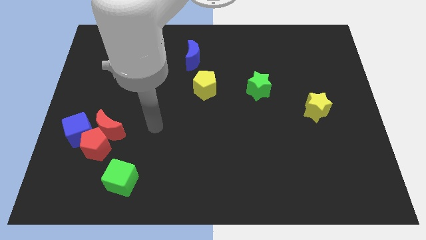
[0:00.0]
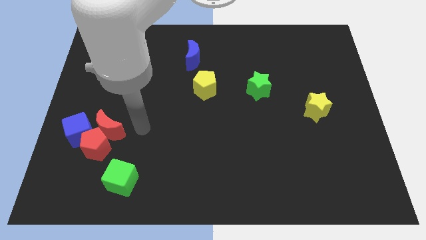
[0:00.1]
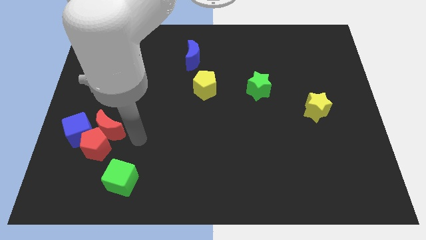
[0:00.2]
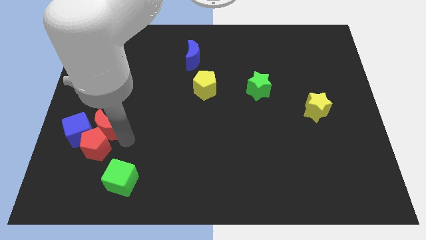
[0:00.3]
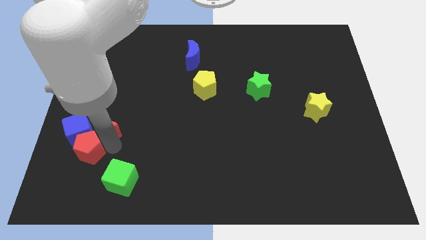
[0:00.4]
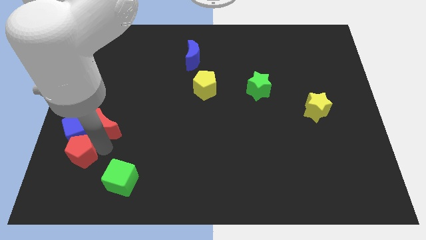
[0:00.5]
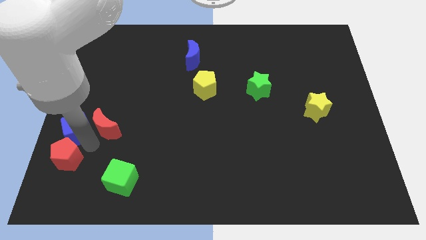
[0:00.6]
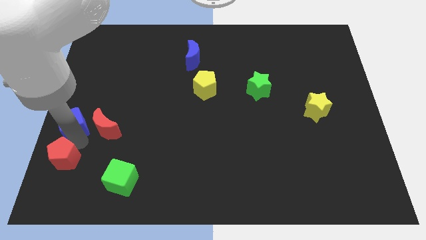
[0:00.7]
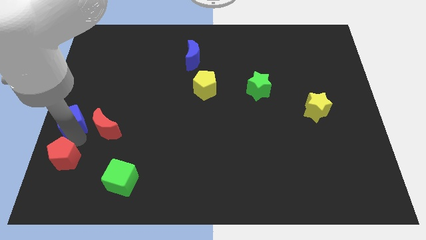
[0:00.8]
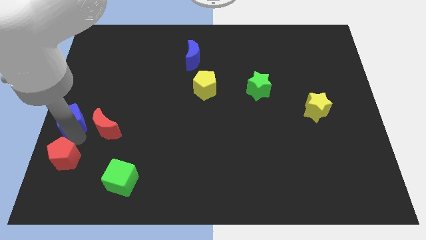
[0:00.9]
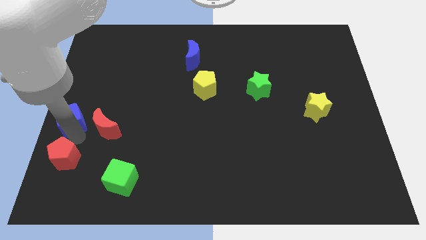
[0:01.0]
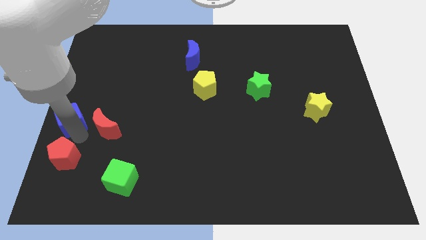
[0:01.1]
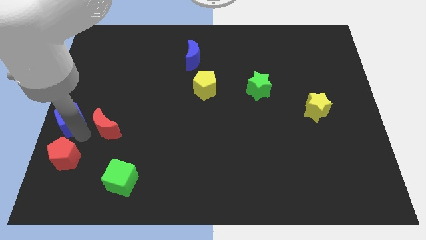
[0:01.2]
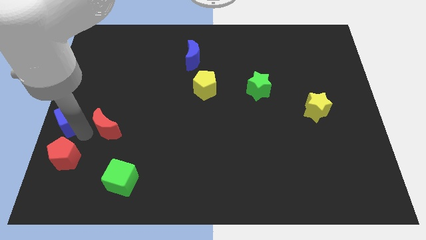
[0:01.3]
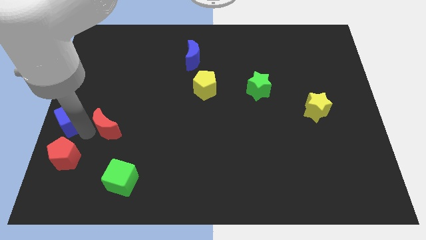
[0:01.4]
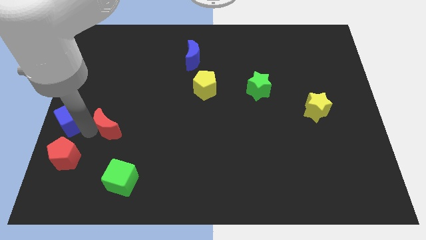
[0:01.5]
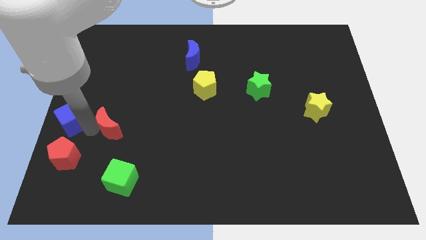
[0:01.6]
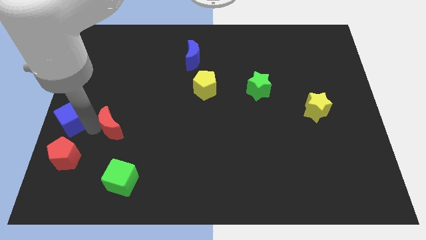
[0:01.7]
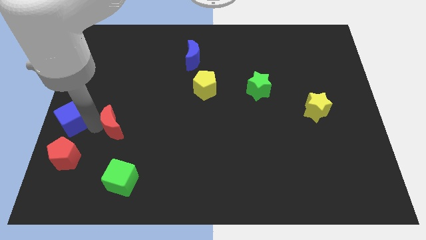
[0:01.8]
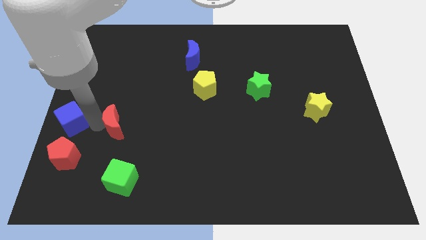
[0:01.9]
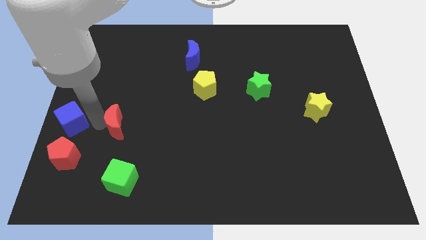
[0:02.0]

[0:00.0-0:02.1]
separate the red moon from the red pentagon and blue cube

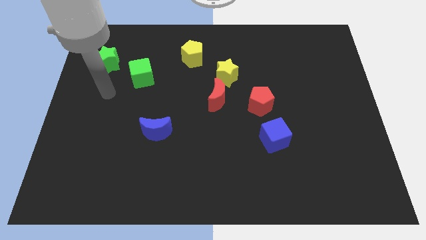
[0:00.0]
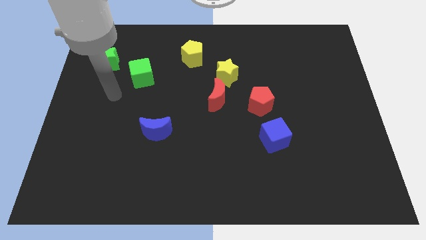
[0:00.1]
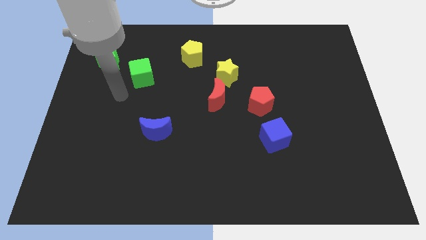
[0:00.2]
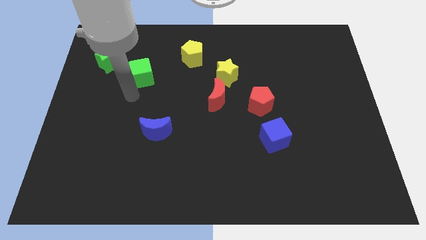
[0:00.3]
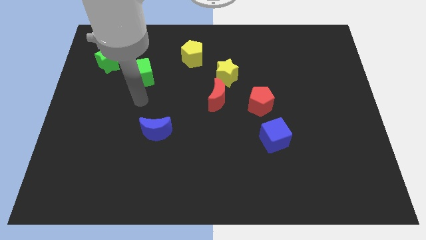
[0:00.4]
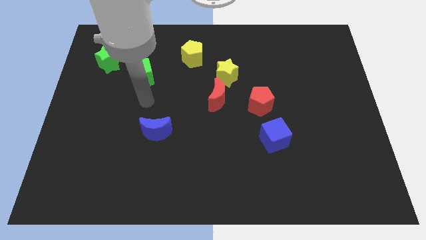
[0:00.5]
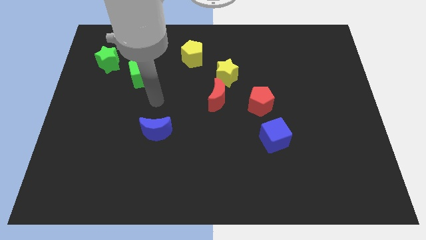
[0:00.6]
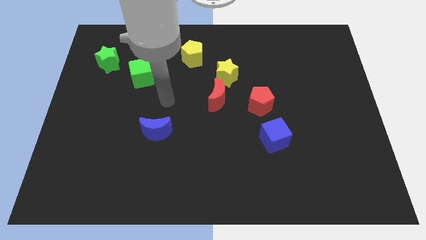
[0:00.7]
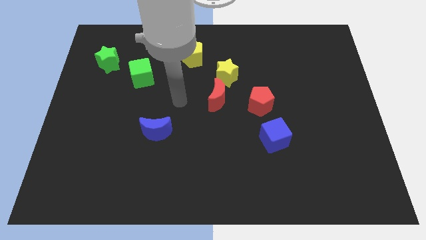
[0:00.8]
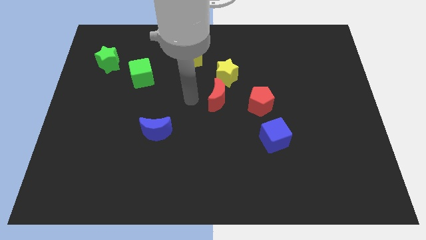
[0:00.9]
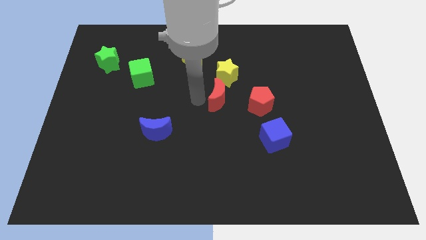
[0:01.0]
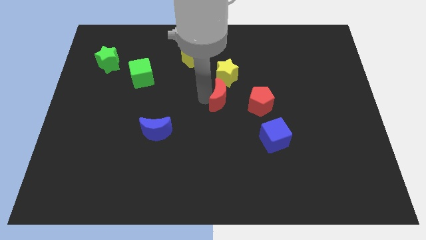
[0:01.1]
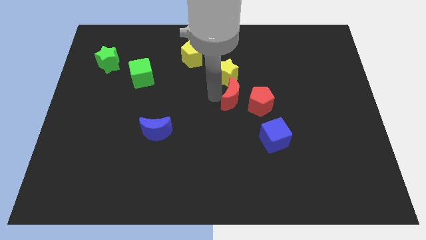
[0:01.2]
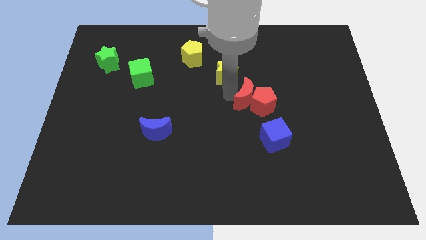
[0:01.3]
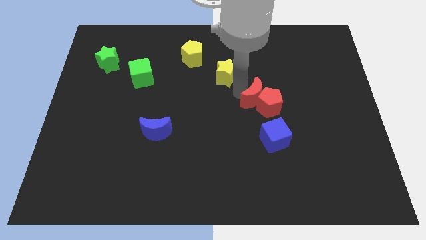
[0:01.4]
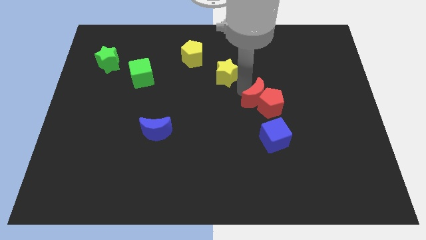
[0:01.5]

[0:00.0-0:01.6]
separate the yellow star from the red moon

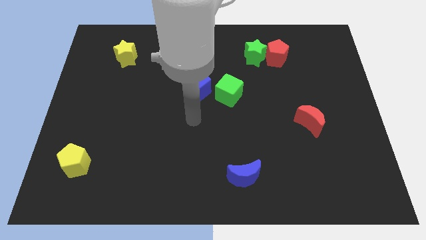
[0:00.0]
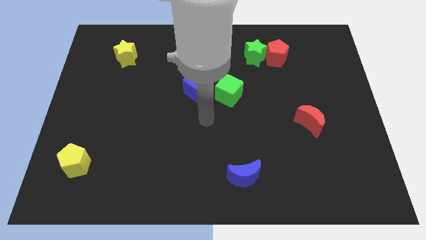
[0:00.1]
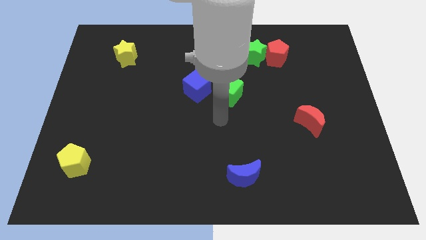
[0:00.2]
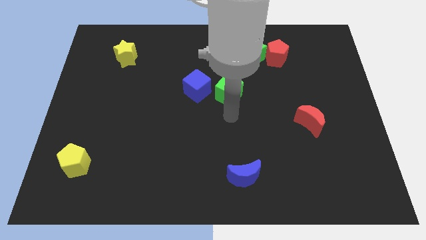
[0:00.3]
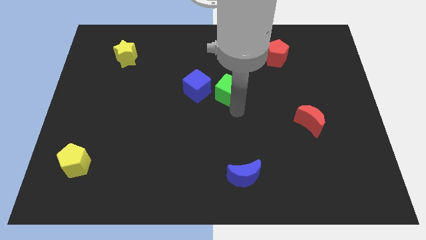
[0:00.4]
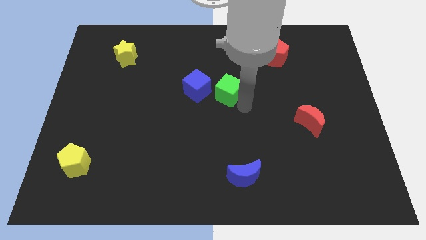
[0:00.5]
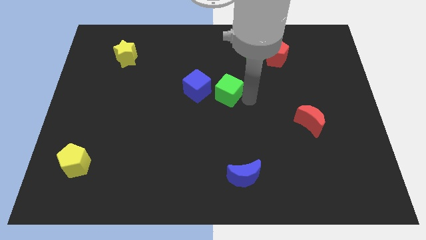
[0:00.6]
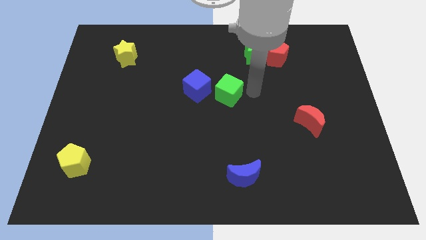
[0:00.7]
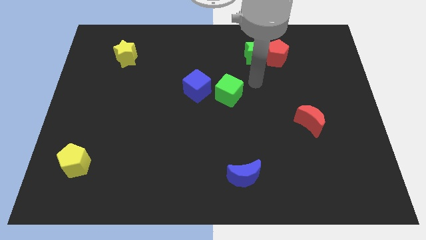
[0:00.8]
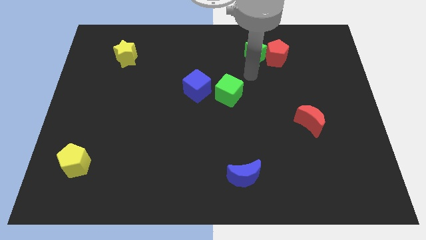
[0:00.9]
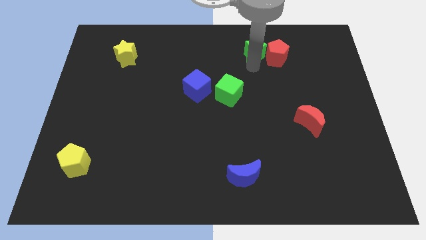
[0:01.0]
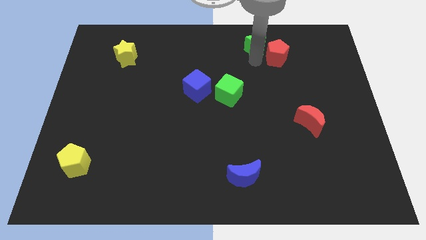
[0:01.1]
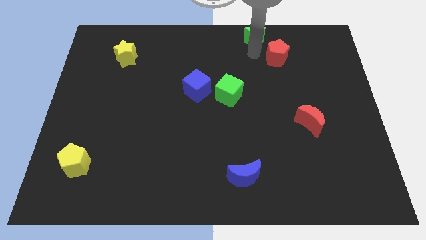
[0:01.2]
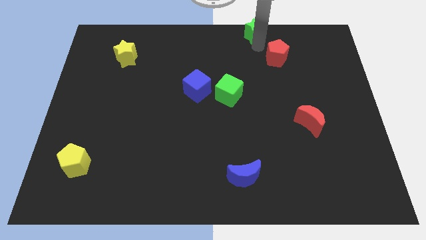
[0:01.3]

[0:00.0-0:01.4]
separate the red pentagon from the green star

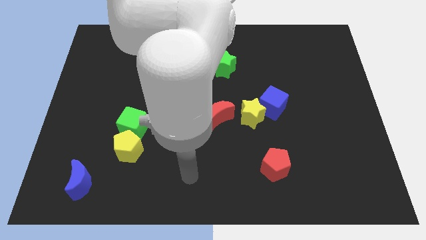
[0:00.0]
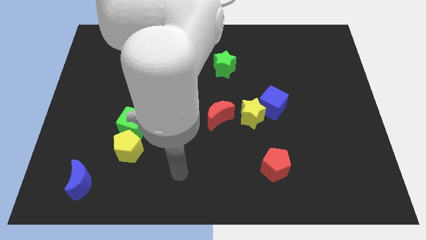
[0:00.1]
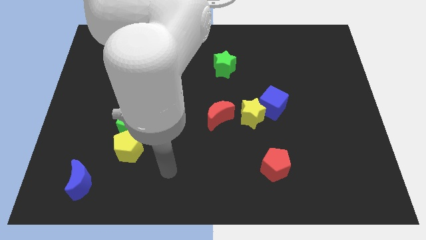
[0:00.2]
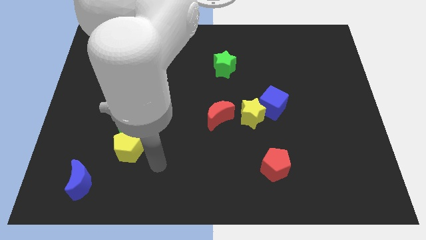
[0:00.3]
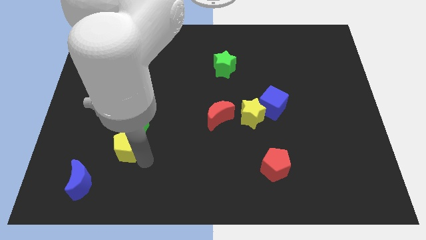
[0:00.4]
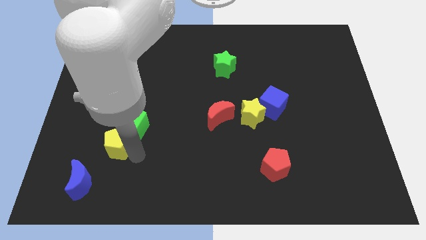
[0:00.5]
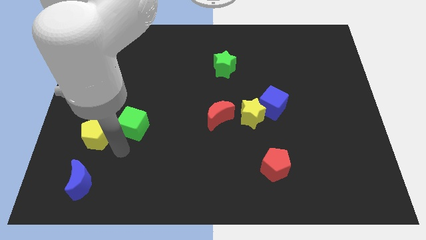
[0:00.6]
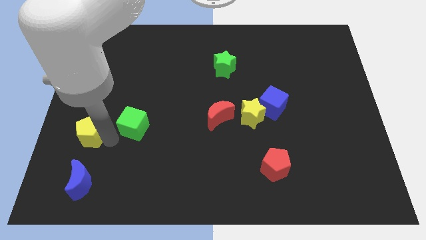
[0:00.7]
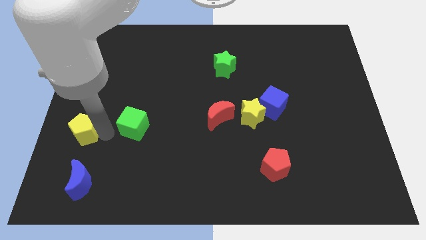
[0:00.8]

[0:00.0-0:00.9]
move the green cube away from the yellow pentagon

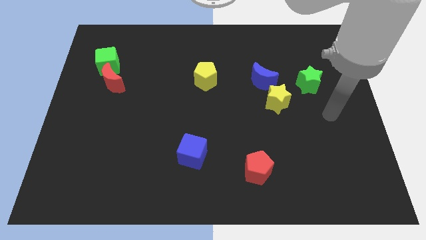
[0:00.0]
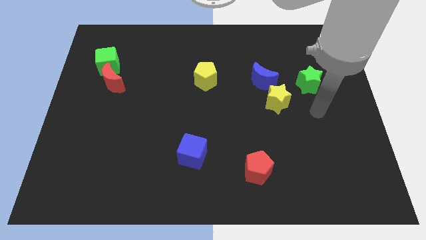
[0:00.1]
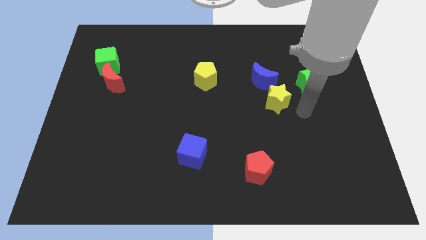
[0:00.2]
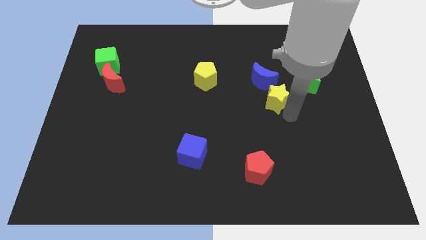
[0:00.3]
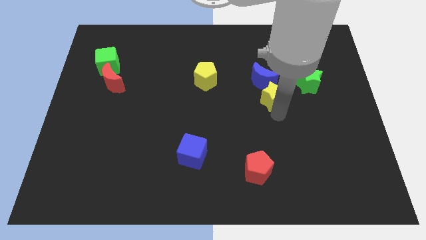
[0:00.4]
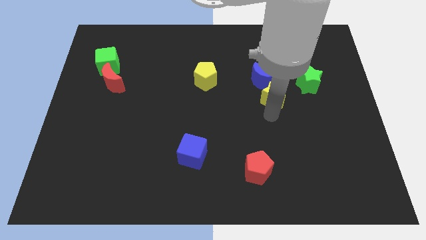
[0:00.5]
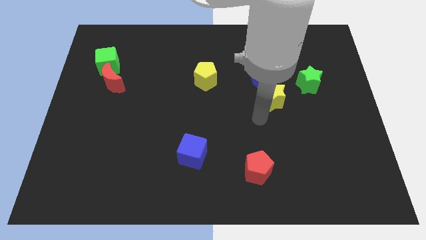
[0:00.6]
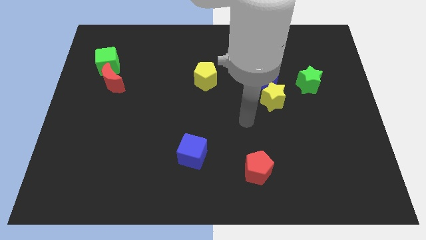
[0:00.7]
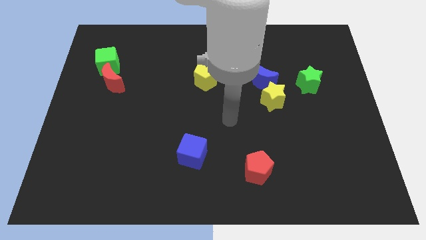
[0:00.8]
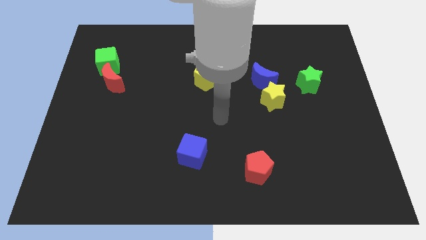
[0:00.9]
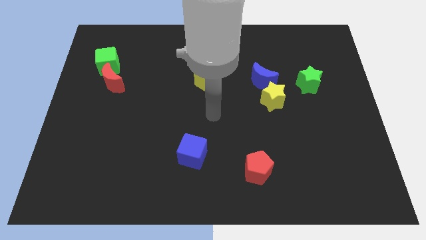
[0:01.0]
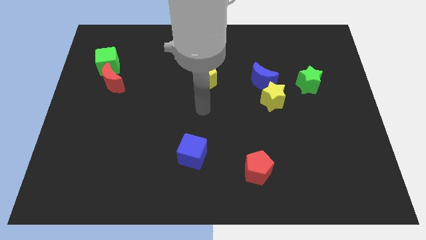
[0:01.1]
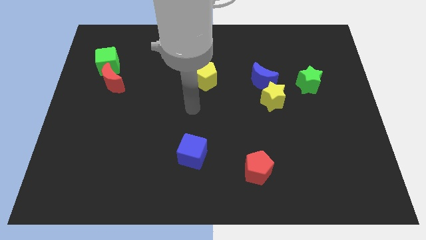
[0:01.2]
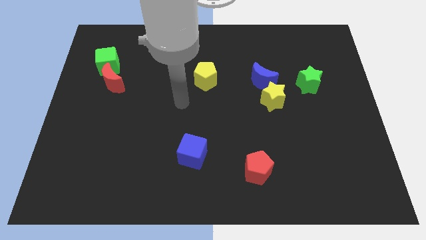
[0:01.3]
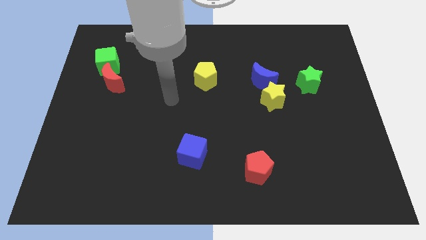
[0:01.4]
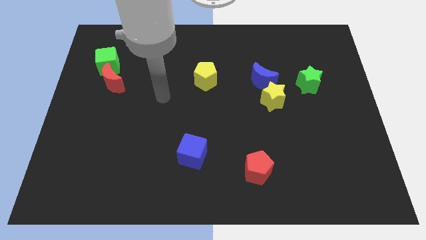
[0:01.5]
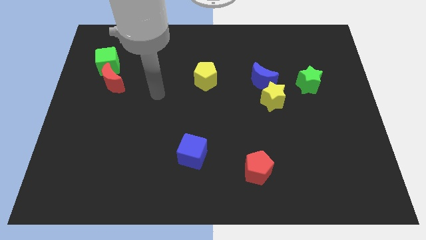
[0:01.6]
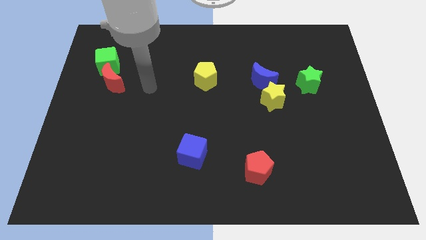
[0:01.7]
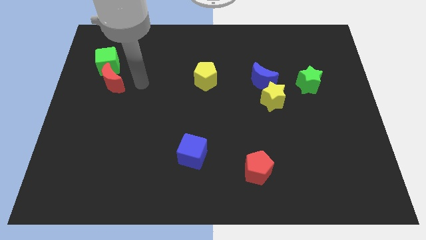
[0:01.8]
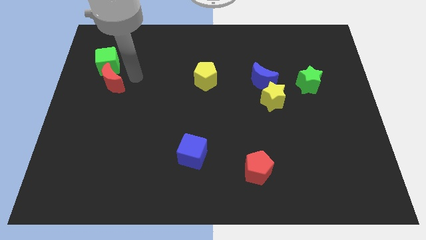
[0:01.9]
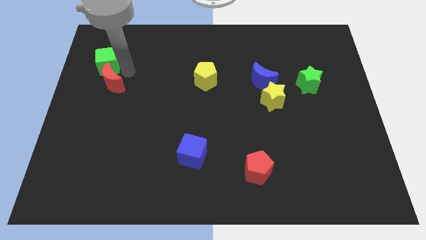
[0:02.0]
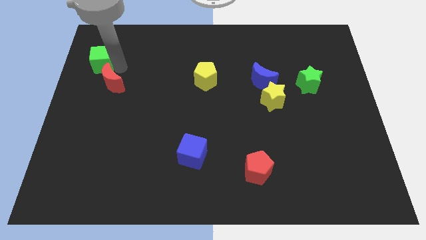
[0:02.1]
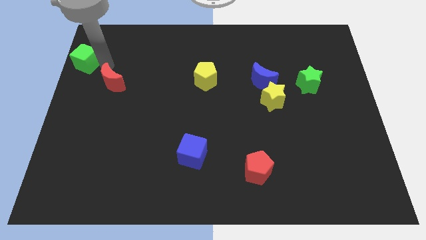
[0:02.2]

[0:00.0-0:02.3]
move the red moon away from the green cube

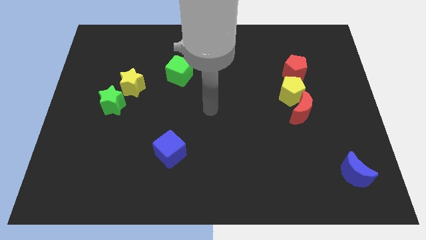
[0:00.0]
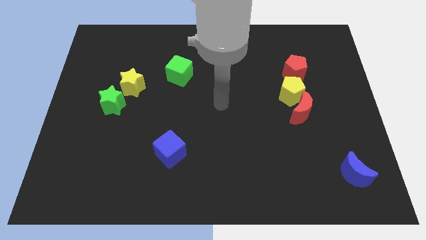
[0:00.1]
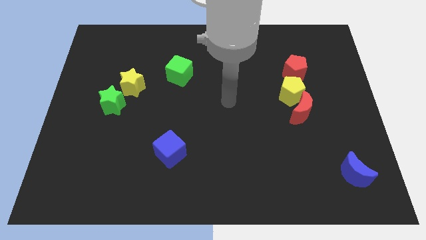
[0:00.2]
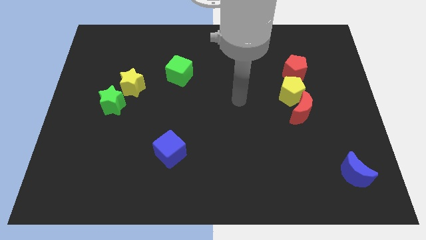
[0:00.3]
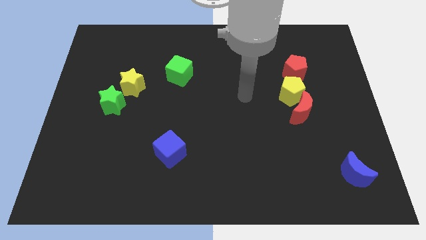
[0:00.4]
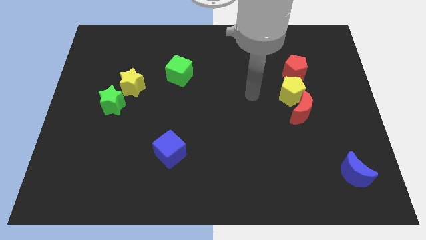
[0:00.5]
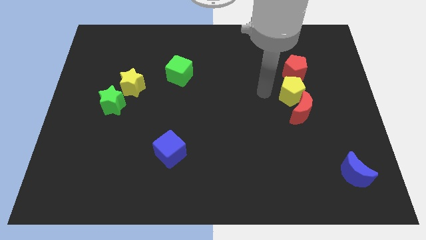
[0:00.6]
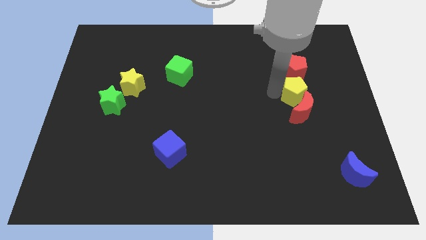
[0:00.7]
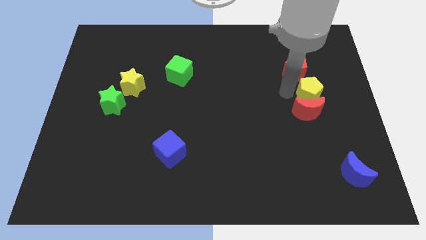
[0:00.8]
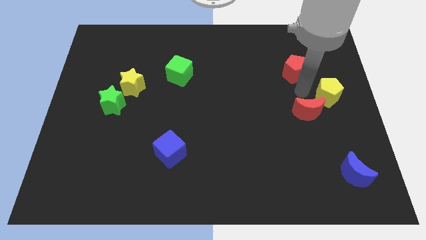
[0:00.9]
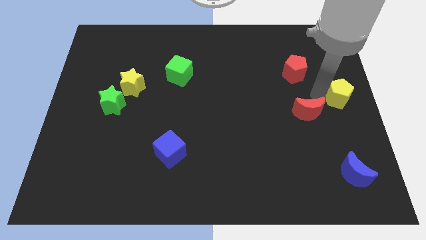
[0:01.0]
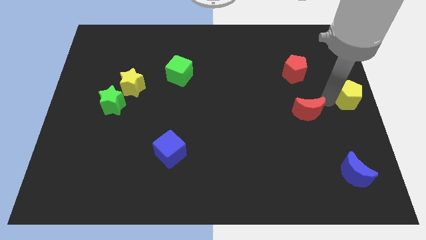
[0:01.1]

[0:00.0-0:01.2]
pull the red moon apart from the yellow pentagon
